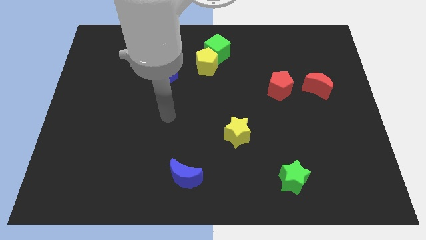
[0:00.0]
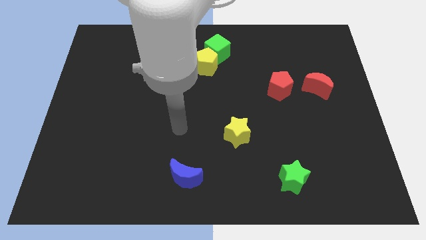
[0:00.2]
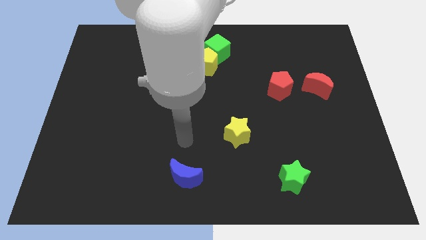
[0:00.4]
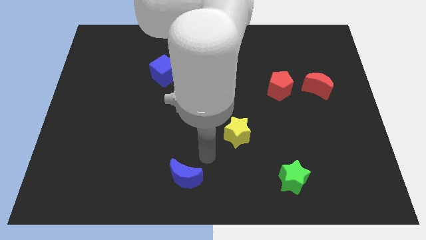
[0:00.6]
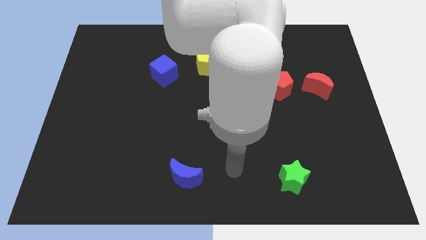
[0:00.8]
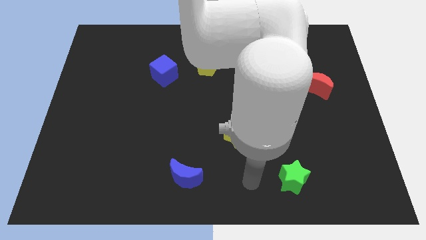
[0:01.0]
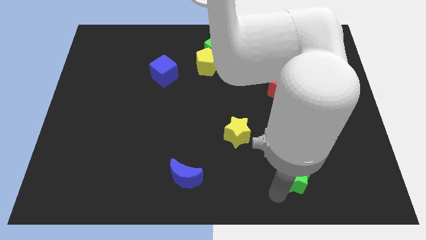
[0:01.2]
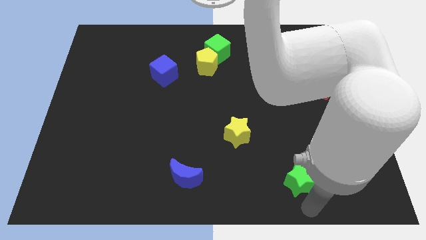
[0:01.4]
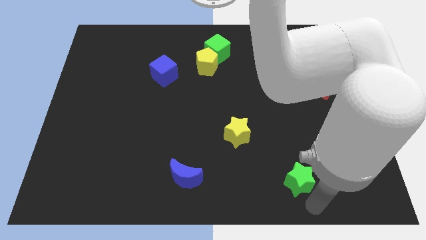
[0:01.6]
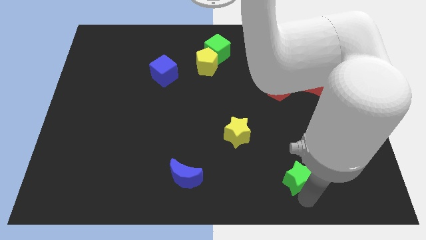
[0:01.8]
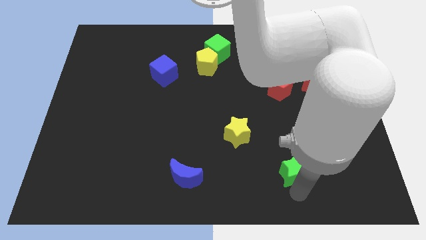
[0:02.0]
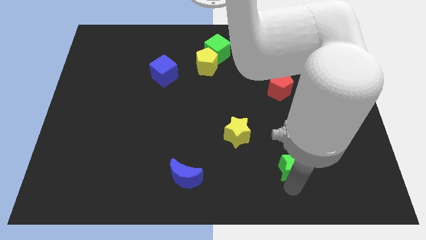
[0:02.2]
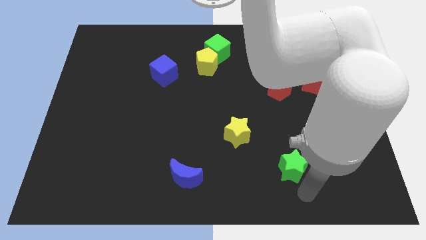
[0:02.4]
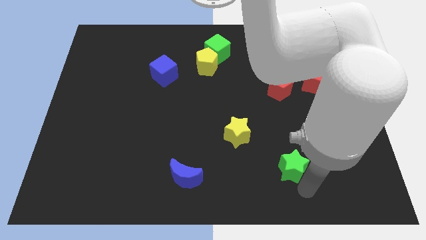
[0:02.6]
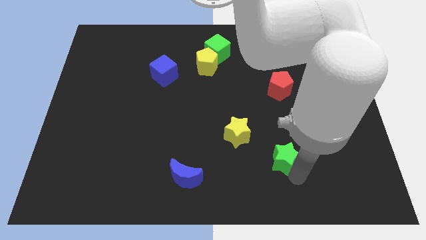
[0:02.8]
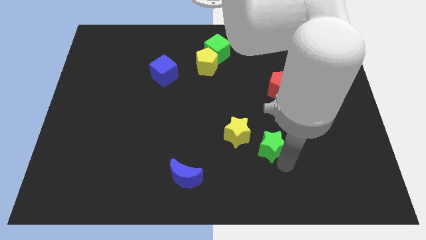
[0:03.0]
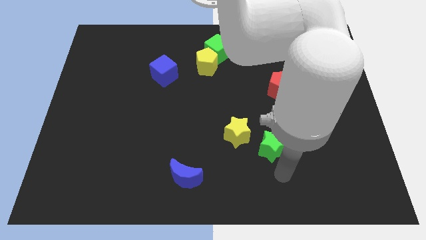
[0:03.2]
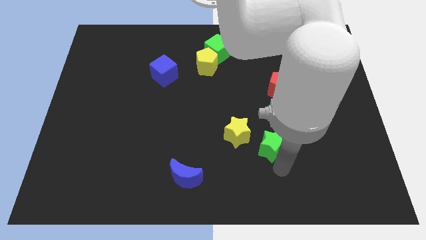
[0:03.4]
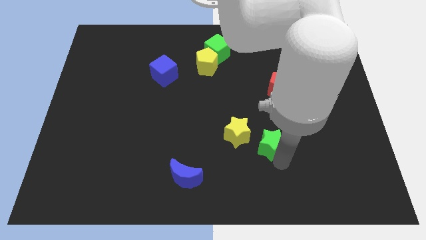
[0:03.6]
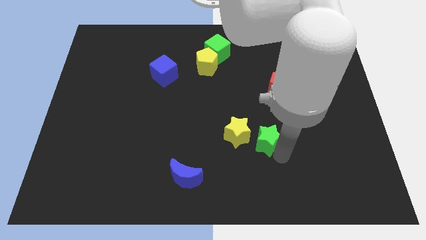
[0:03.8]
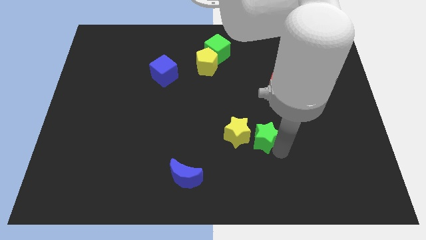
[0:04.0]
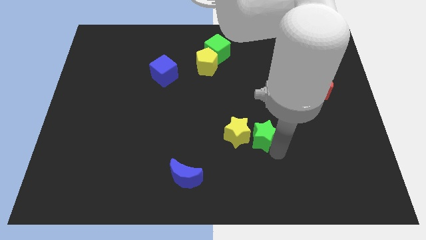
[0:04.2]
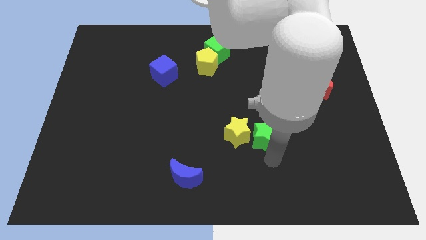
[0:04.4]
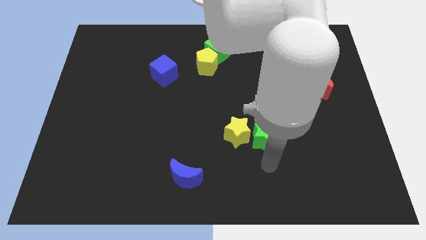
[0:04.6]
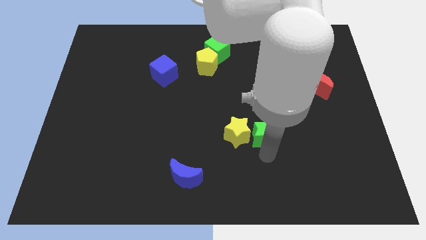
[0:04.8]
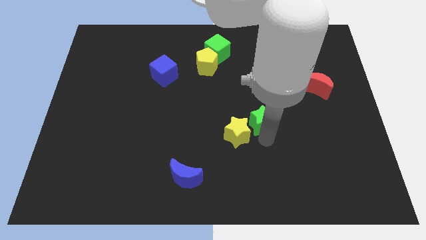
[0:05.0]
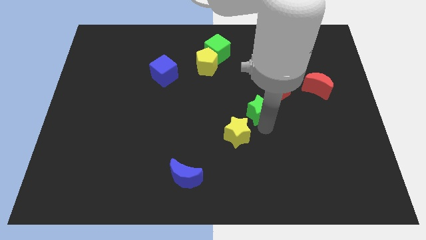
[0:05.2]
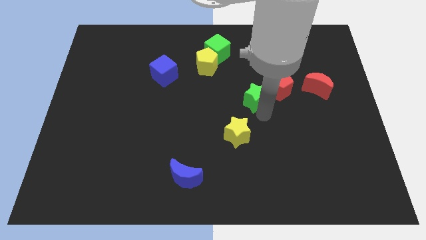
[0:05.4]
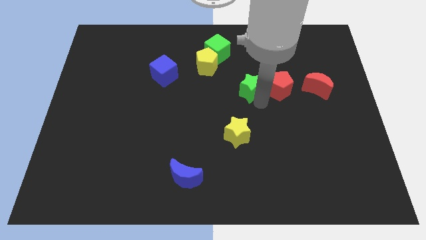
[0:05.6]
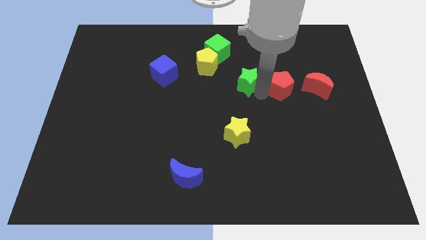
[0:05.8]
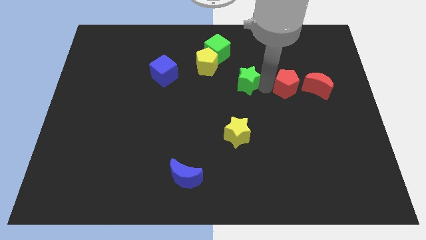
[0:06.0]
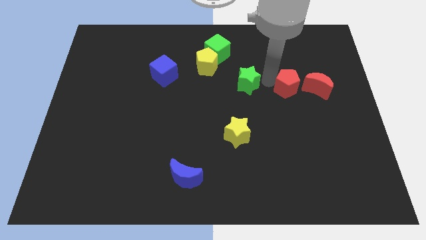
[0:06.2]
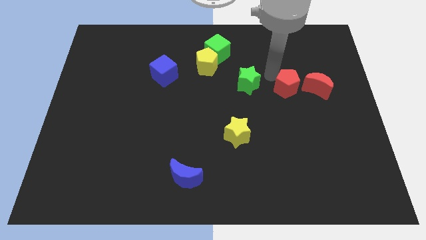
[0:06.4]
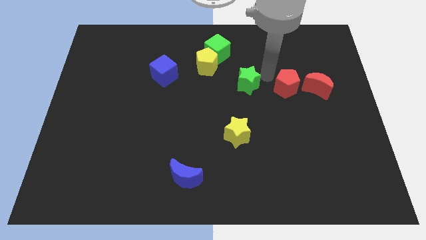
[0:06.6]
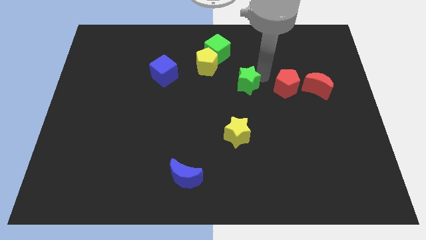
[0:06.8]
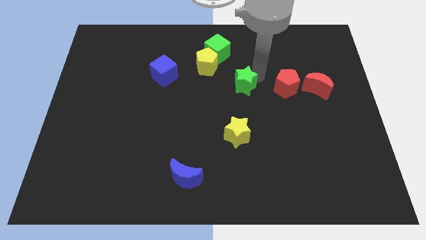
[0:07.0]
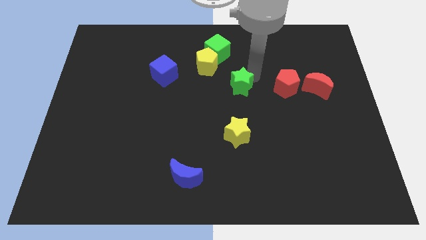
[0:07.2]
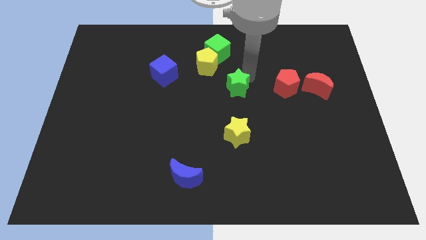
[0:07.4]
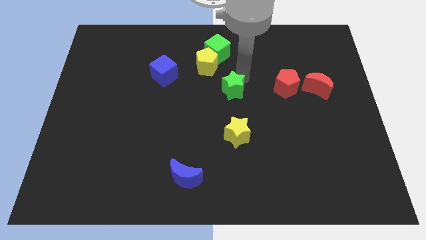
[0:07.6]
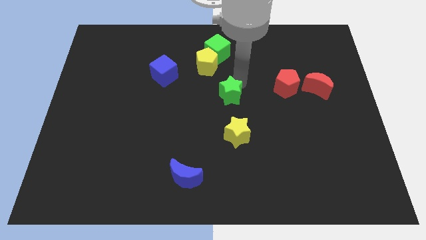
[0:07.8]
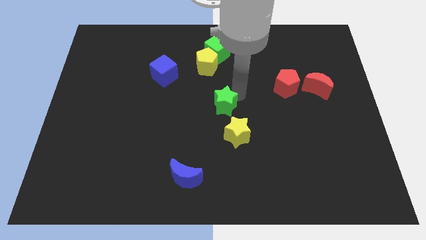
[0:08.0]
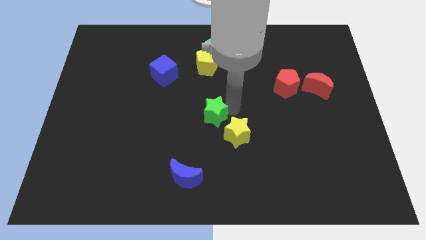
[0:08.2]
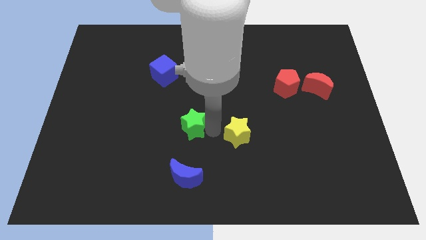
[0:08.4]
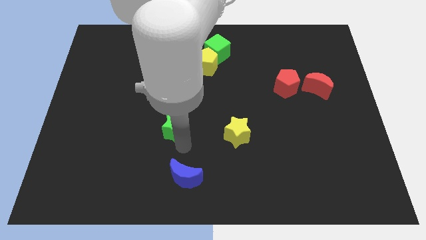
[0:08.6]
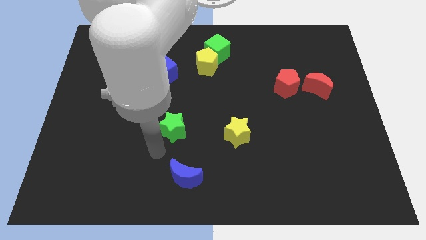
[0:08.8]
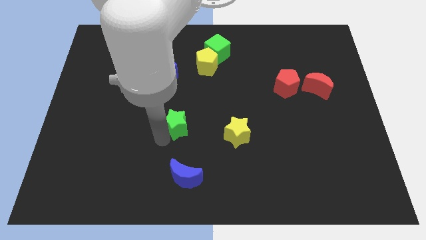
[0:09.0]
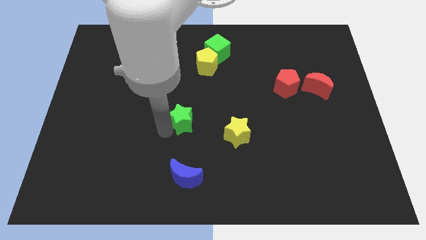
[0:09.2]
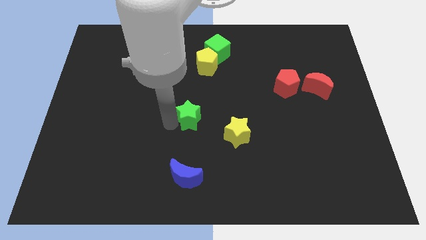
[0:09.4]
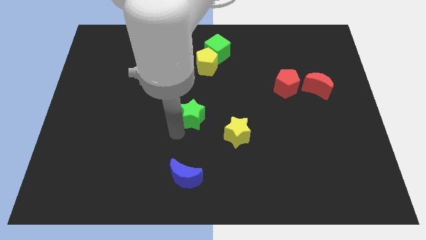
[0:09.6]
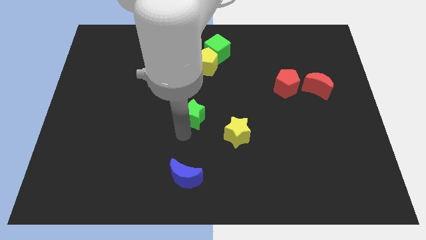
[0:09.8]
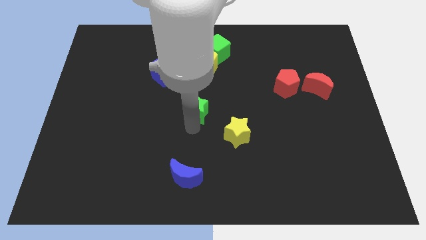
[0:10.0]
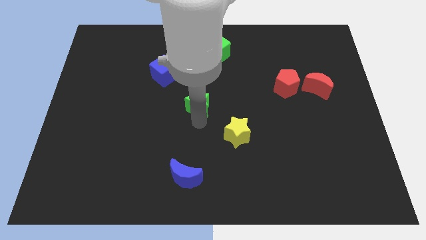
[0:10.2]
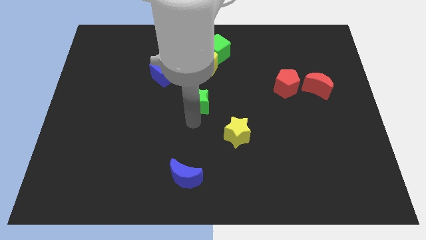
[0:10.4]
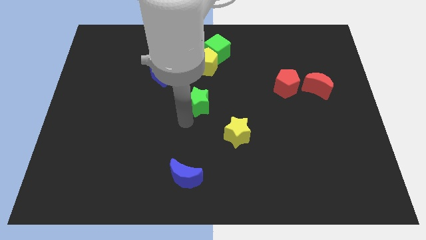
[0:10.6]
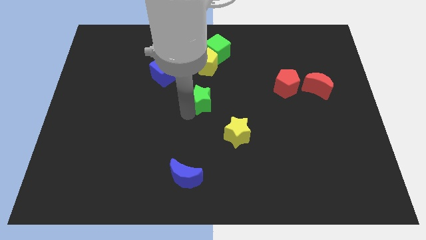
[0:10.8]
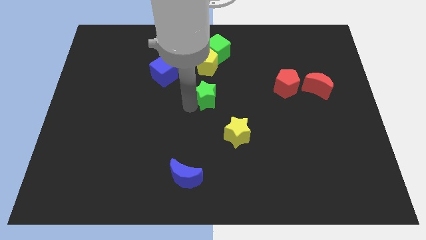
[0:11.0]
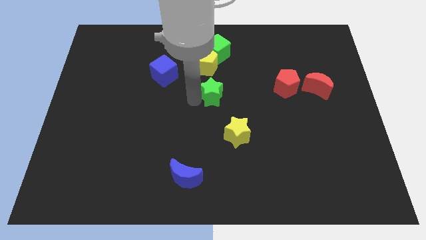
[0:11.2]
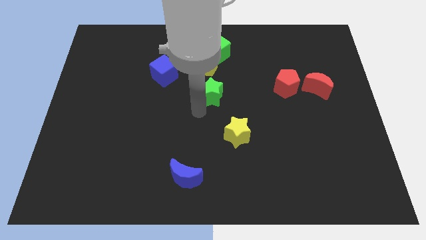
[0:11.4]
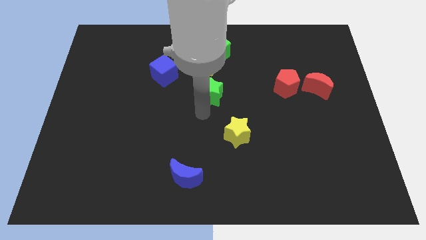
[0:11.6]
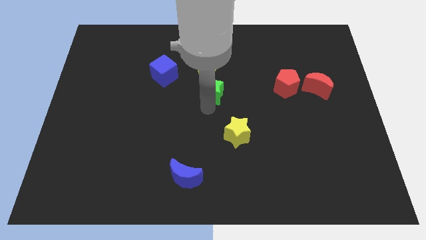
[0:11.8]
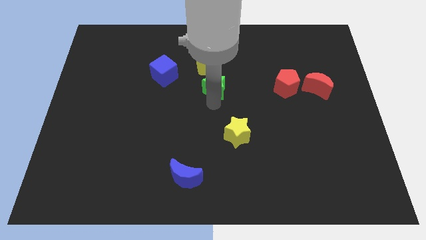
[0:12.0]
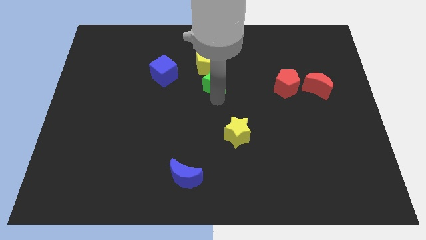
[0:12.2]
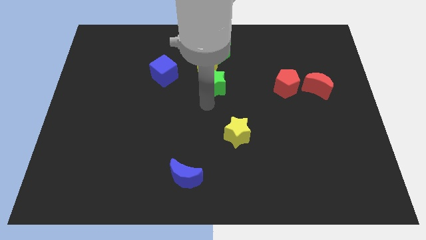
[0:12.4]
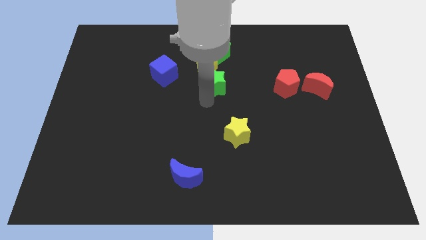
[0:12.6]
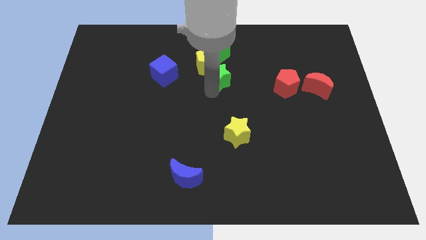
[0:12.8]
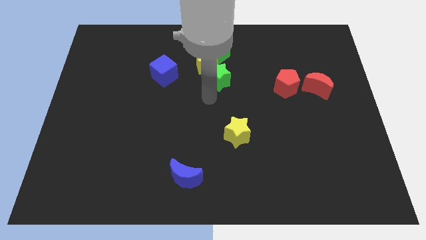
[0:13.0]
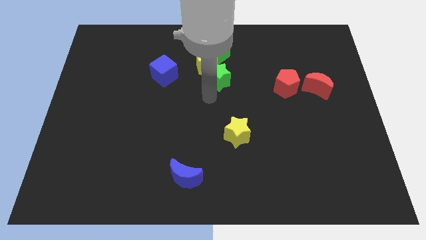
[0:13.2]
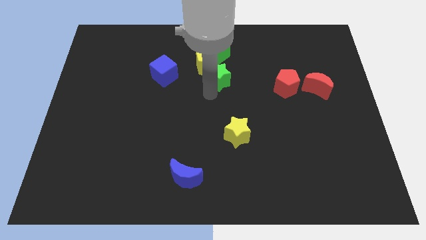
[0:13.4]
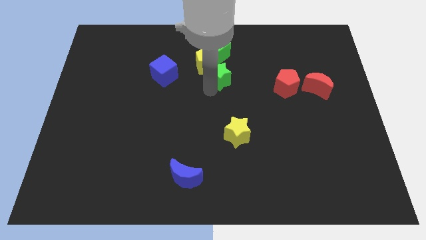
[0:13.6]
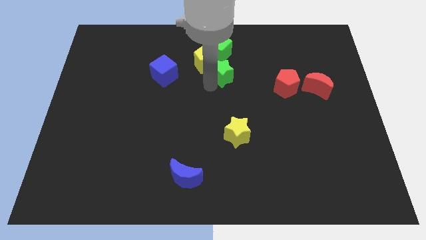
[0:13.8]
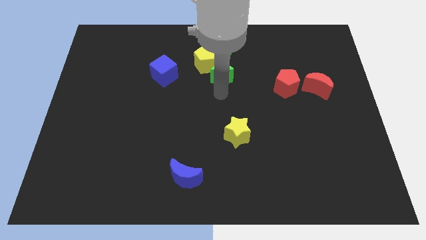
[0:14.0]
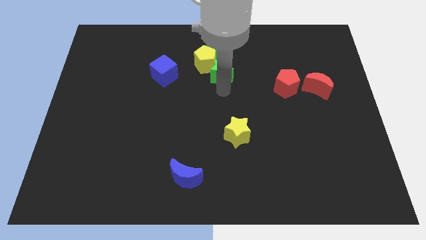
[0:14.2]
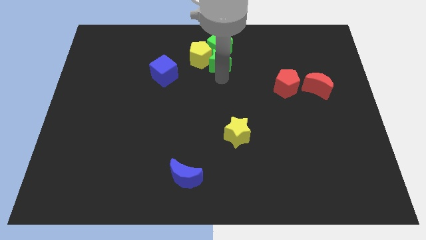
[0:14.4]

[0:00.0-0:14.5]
slide the green star towards the green cube
